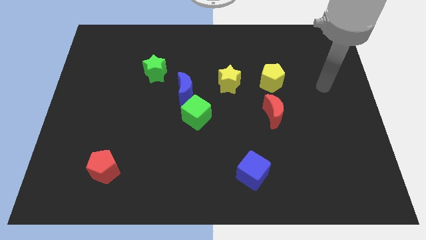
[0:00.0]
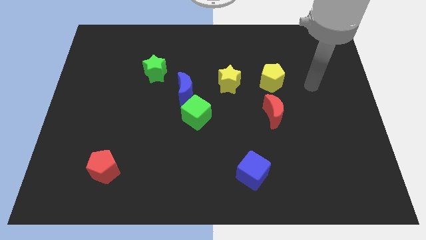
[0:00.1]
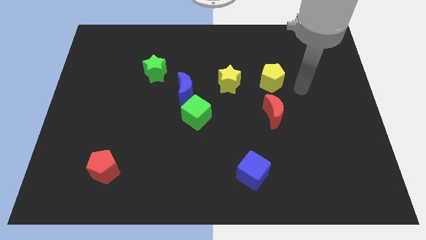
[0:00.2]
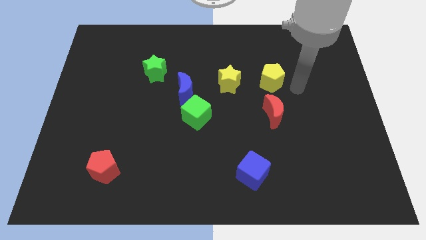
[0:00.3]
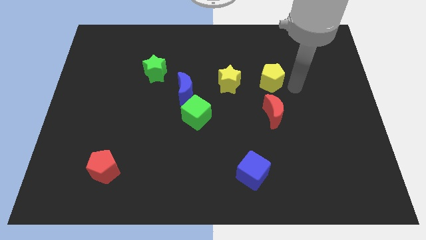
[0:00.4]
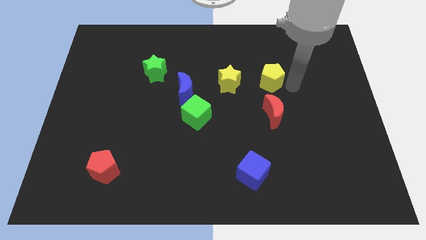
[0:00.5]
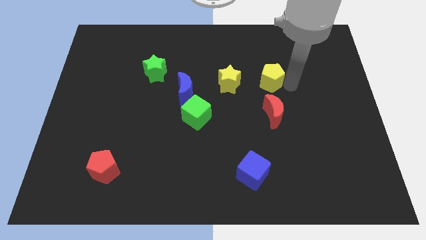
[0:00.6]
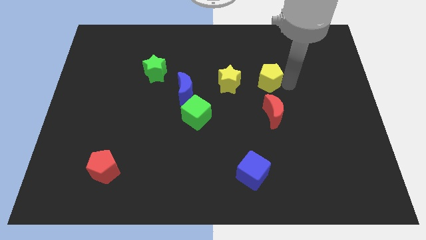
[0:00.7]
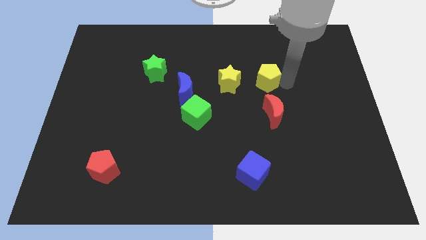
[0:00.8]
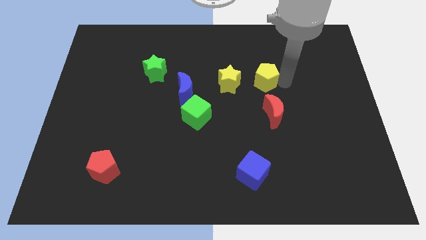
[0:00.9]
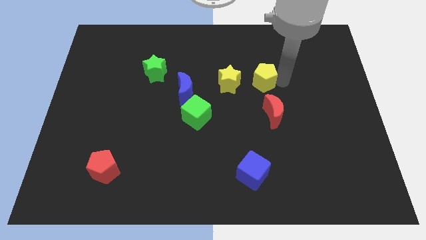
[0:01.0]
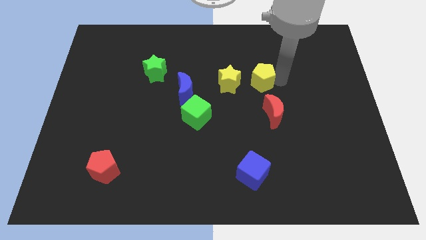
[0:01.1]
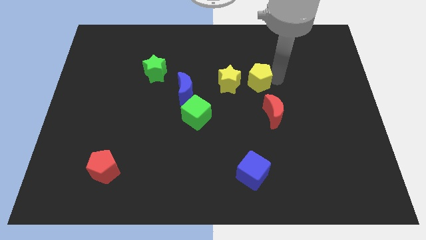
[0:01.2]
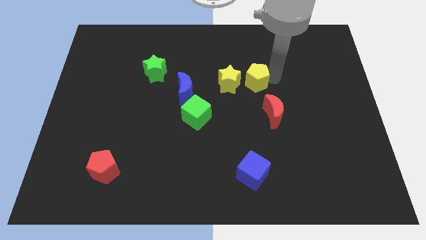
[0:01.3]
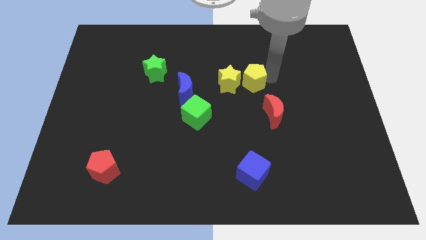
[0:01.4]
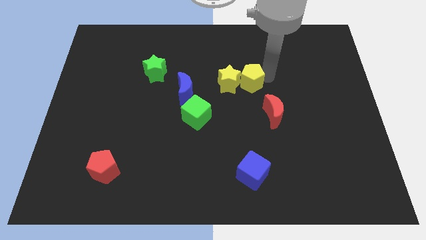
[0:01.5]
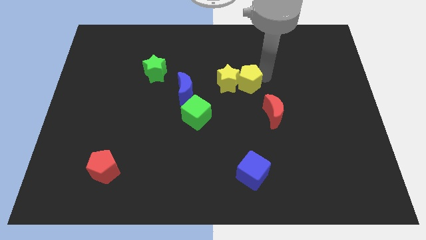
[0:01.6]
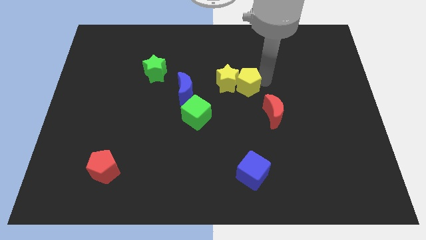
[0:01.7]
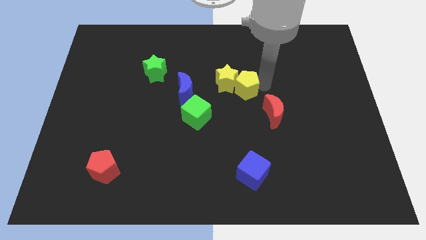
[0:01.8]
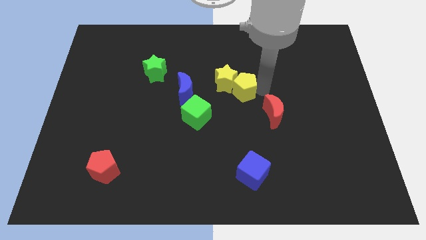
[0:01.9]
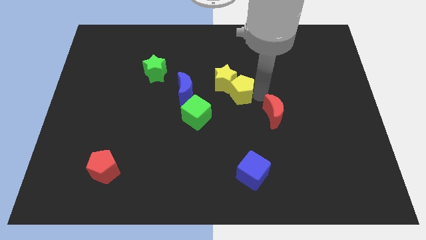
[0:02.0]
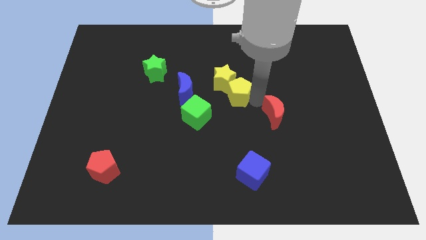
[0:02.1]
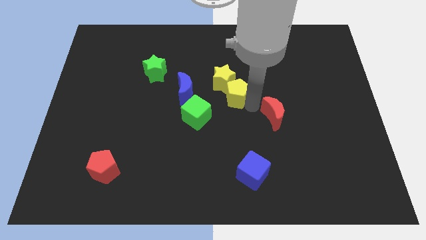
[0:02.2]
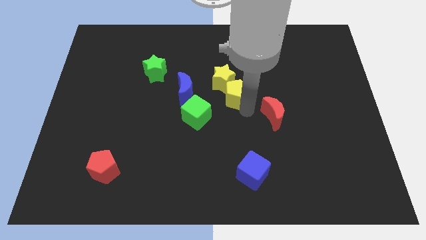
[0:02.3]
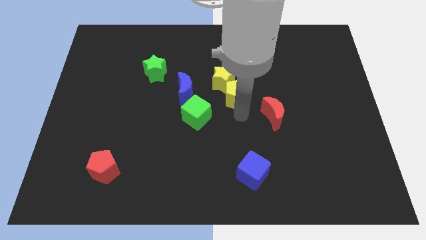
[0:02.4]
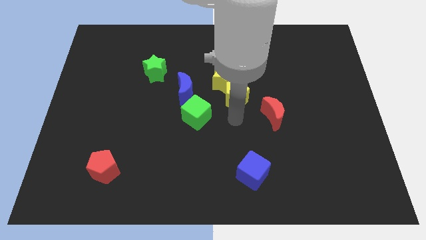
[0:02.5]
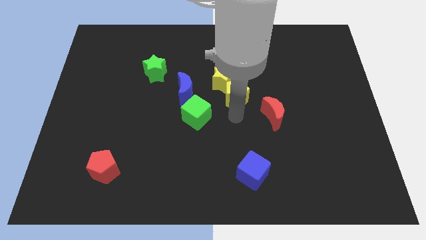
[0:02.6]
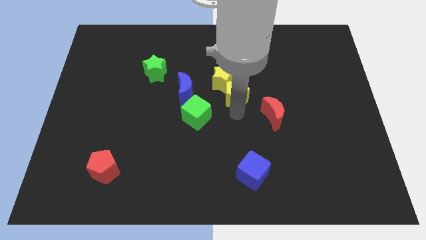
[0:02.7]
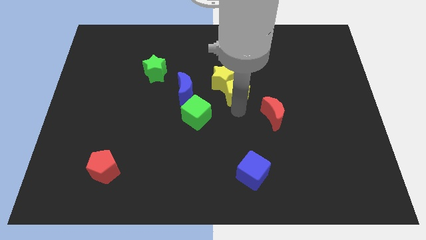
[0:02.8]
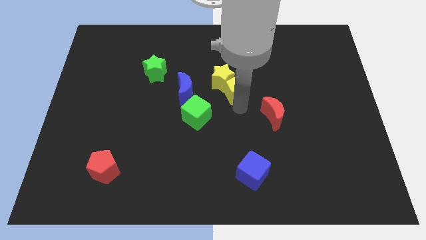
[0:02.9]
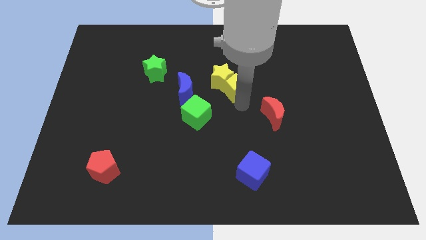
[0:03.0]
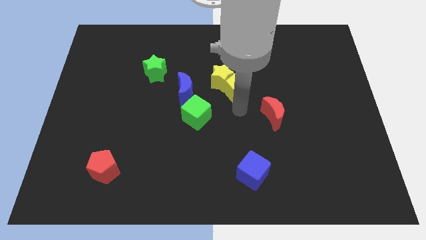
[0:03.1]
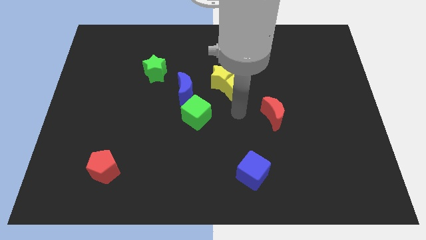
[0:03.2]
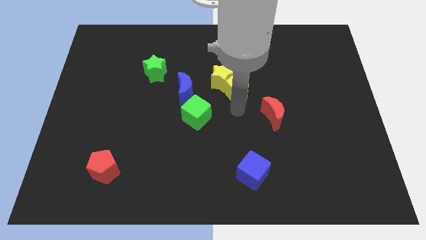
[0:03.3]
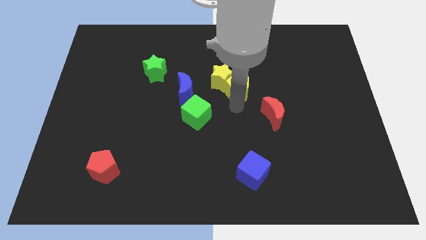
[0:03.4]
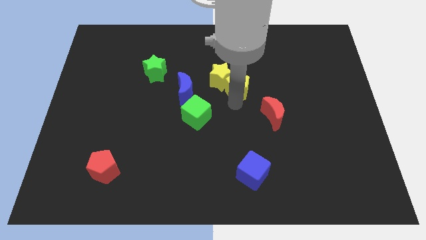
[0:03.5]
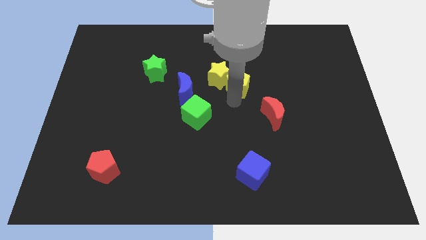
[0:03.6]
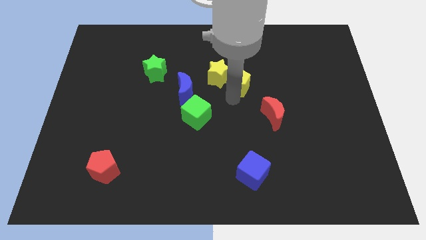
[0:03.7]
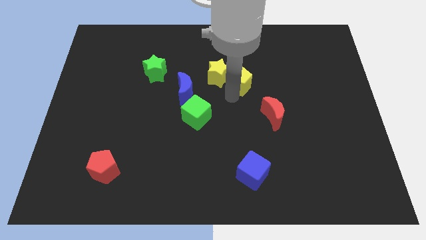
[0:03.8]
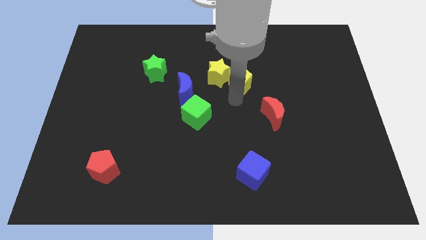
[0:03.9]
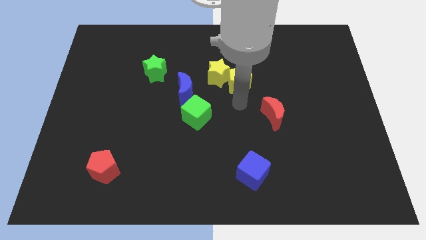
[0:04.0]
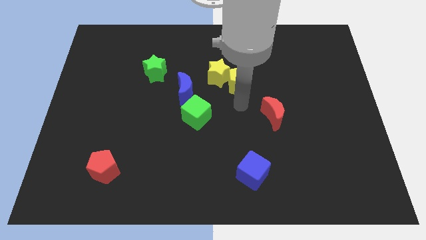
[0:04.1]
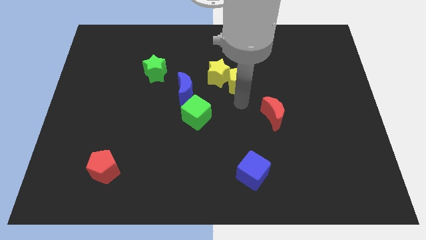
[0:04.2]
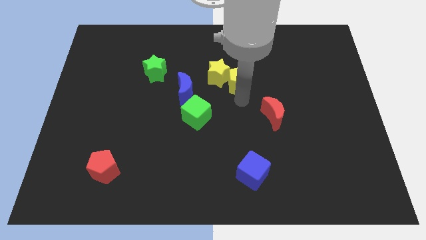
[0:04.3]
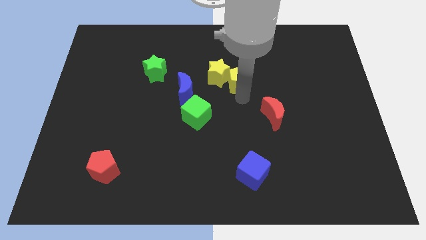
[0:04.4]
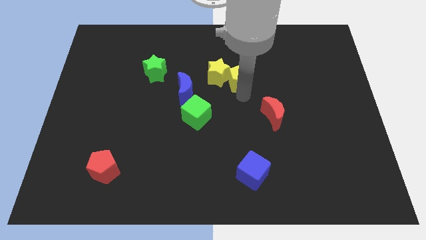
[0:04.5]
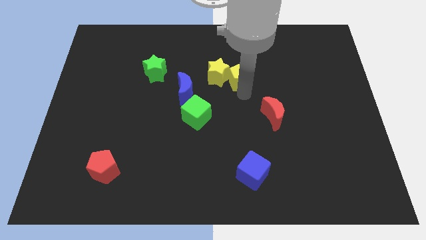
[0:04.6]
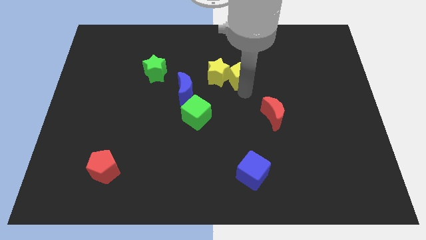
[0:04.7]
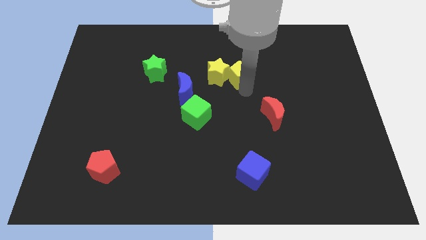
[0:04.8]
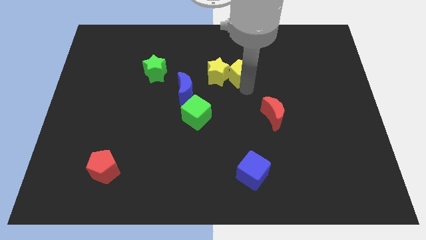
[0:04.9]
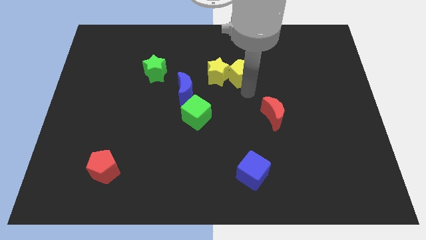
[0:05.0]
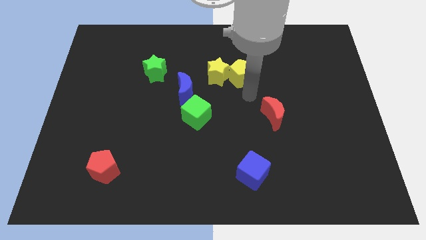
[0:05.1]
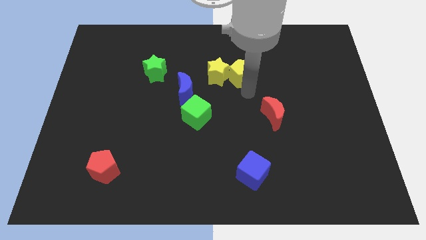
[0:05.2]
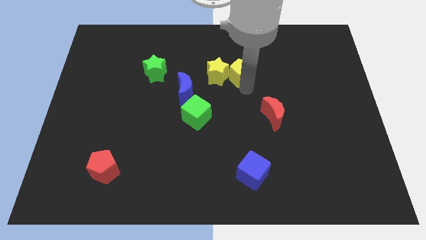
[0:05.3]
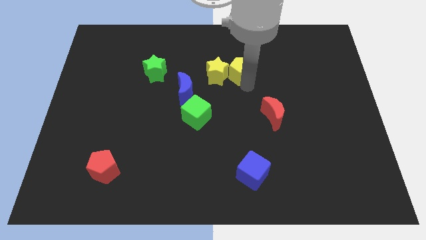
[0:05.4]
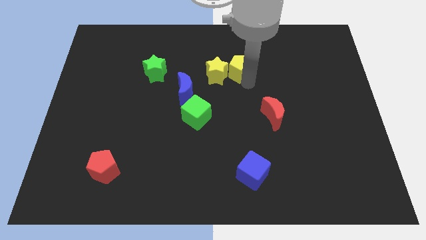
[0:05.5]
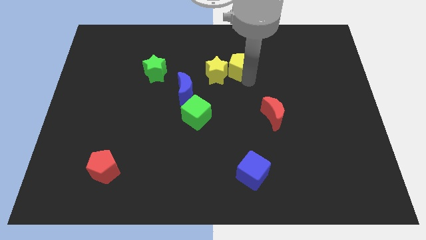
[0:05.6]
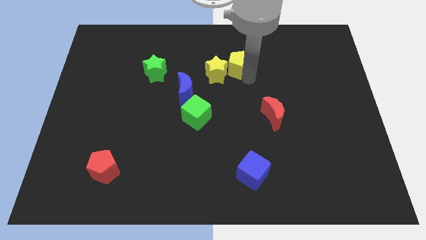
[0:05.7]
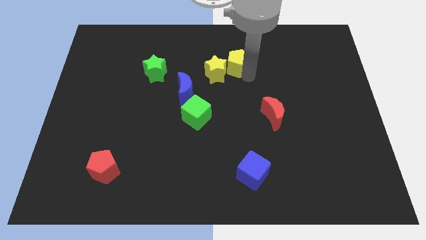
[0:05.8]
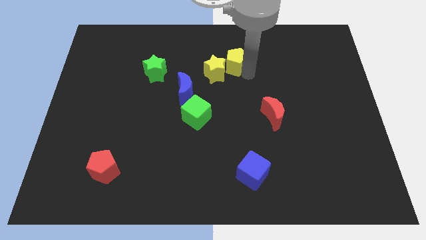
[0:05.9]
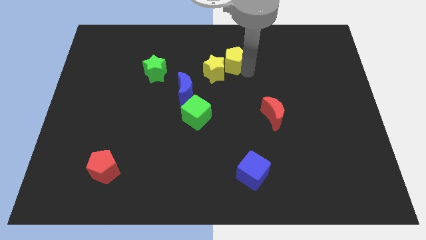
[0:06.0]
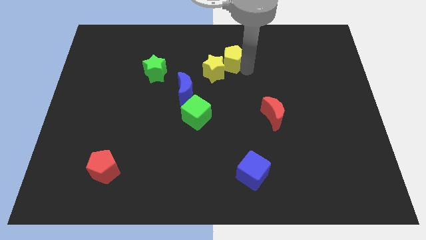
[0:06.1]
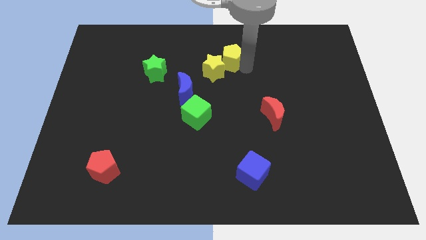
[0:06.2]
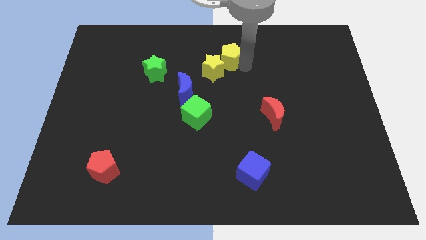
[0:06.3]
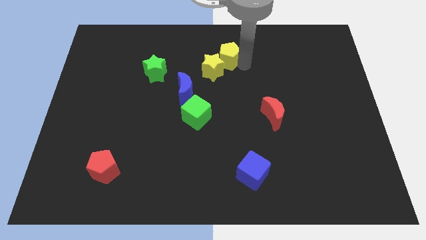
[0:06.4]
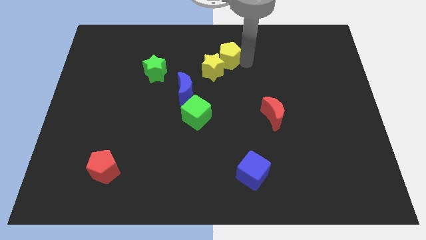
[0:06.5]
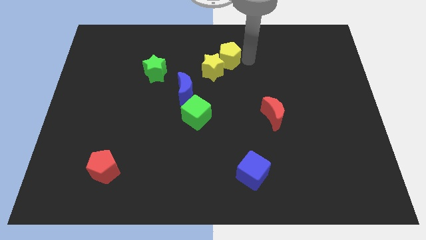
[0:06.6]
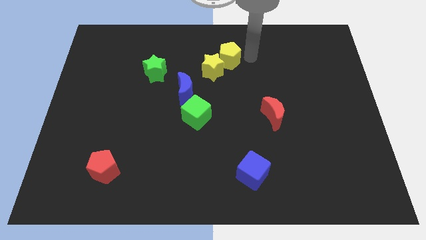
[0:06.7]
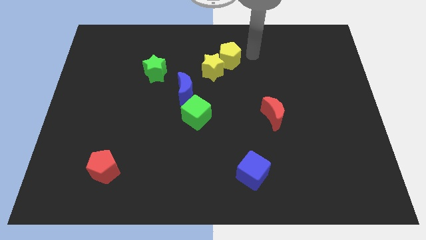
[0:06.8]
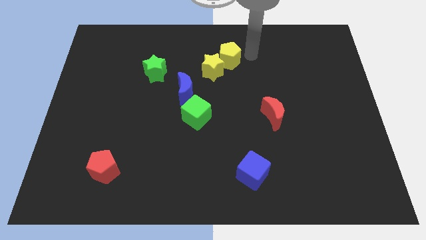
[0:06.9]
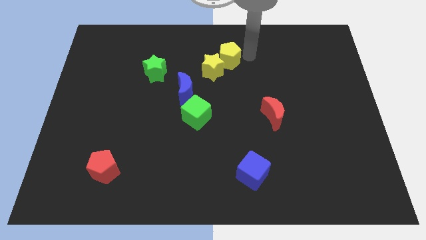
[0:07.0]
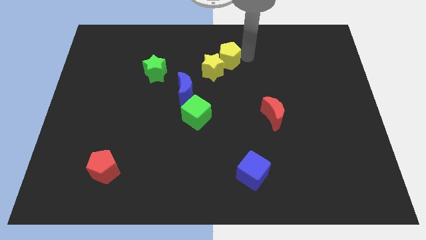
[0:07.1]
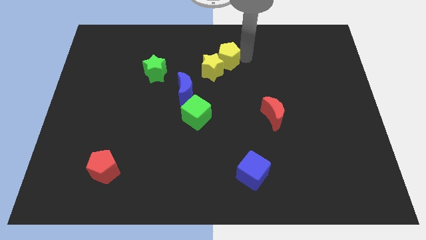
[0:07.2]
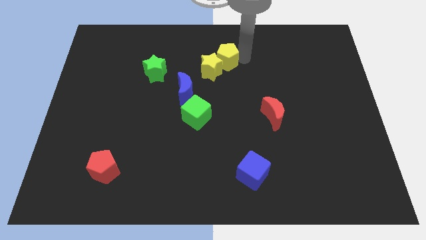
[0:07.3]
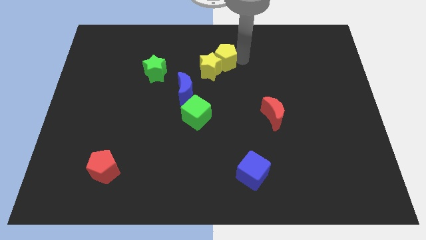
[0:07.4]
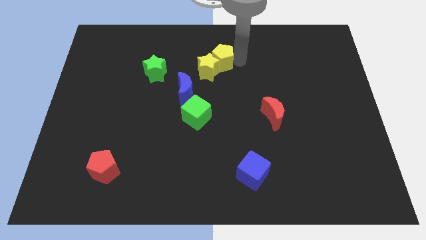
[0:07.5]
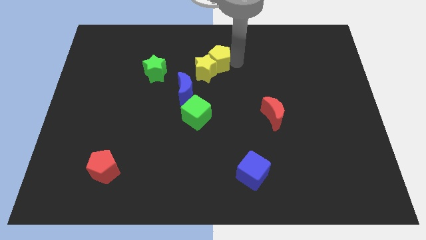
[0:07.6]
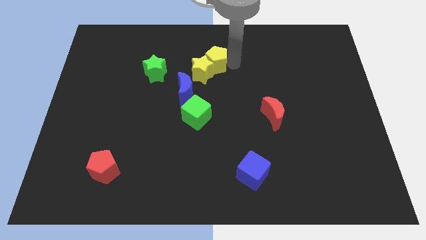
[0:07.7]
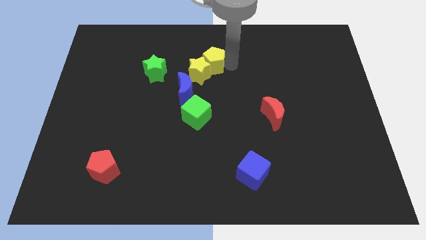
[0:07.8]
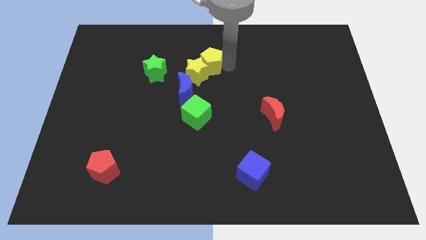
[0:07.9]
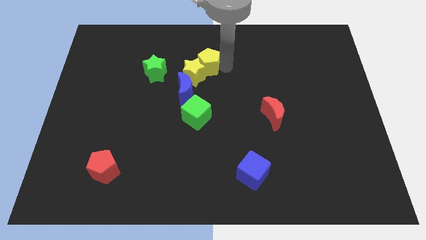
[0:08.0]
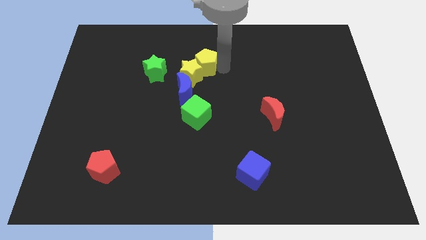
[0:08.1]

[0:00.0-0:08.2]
move the yellow pentagon to the top of the blue moon
